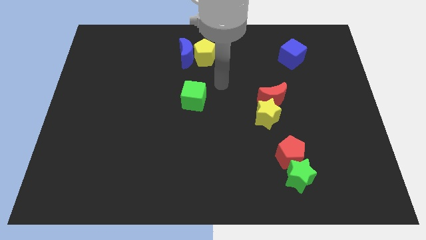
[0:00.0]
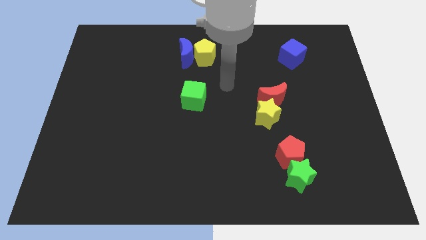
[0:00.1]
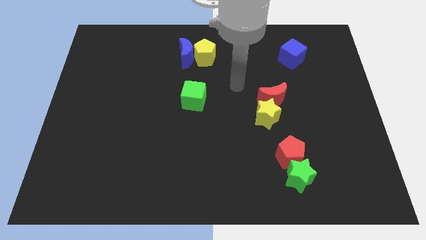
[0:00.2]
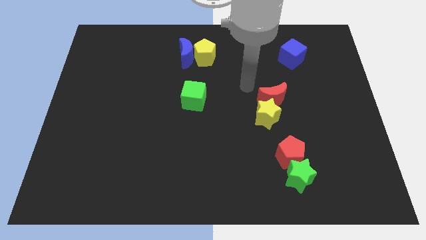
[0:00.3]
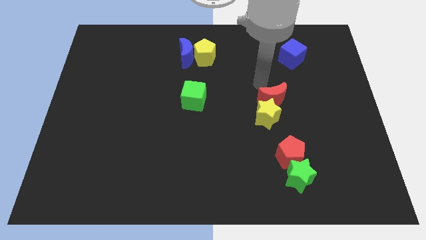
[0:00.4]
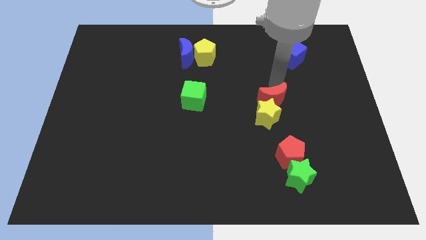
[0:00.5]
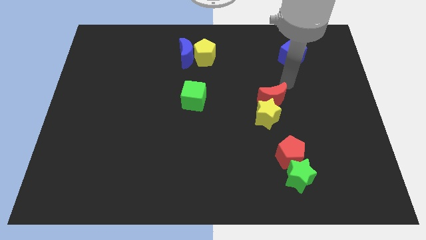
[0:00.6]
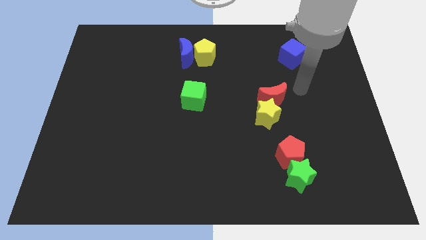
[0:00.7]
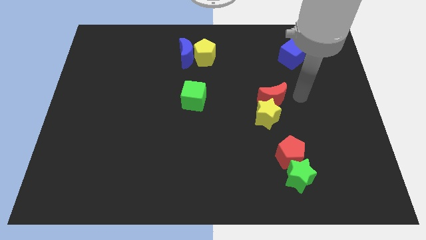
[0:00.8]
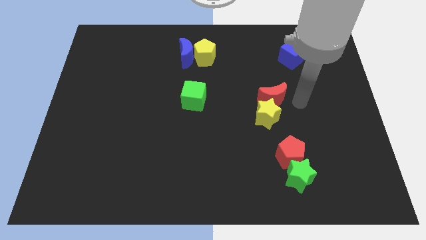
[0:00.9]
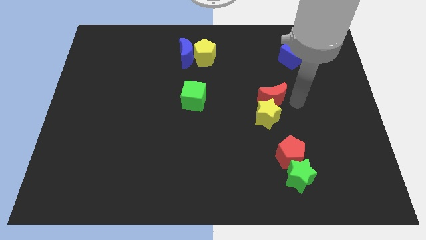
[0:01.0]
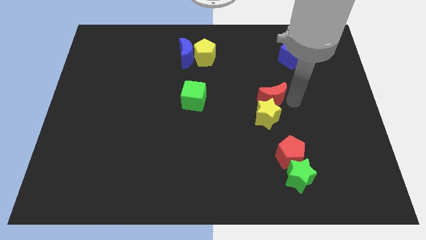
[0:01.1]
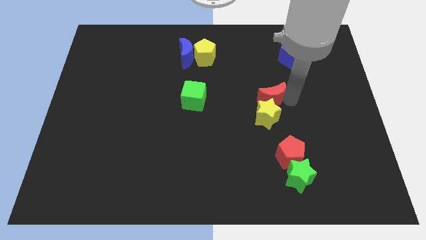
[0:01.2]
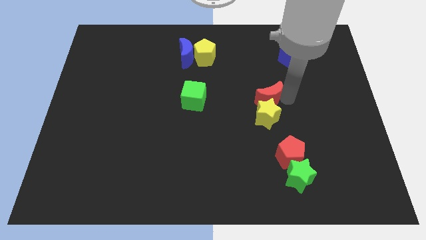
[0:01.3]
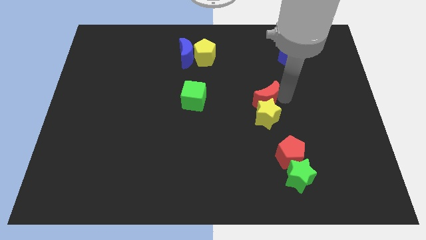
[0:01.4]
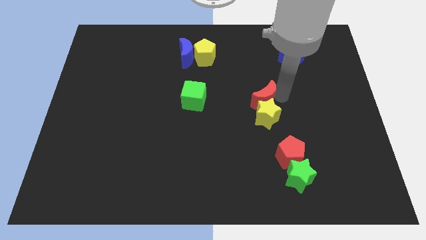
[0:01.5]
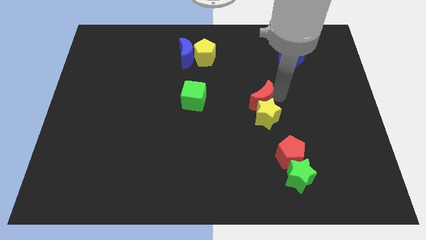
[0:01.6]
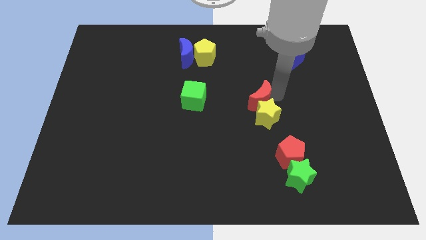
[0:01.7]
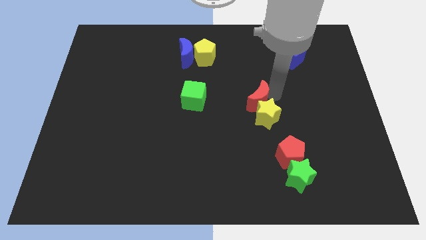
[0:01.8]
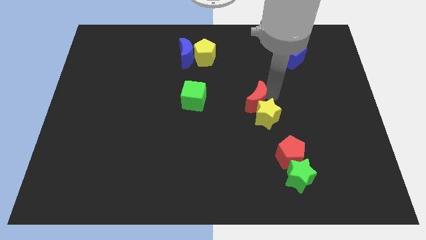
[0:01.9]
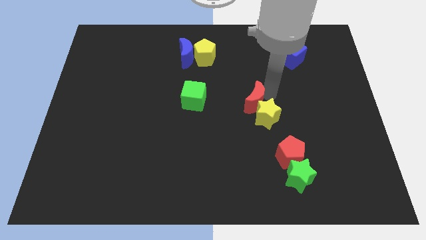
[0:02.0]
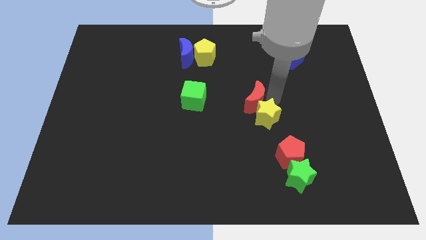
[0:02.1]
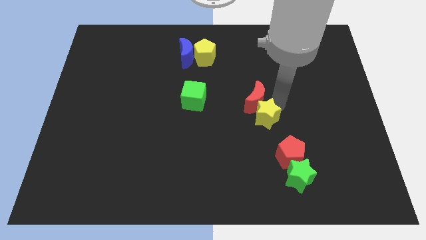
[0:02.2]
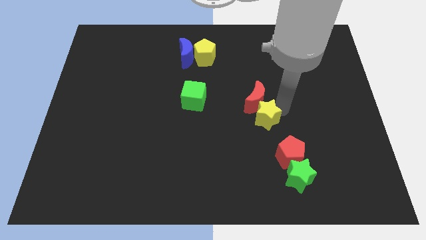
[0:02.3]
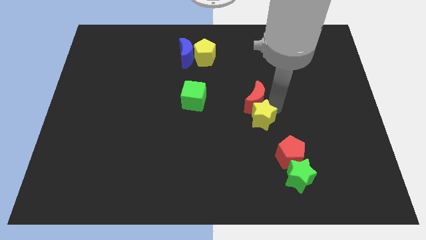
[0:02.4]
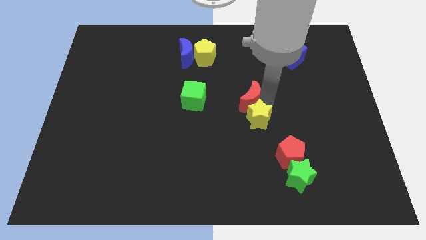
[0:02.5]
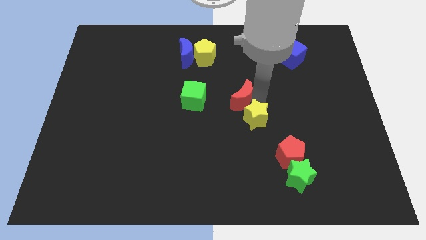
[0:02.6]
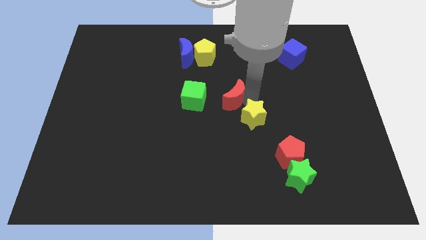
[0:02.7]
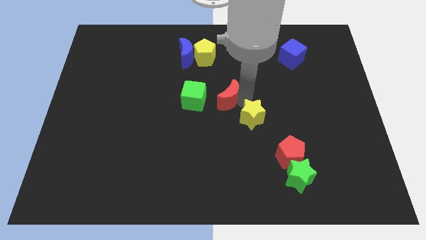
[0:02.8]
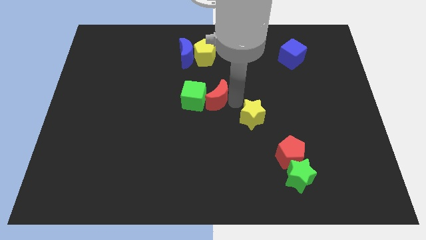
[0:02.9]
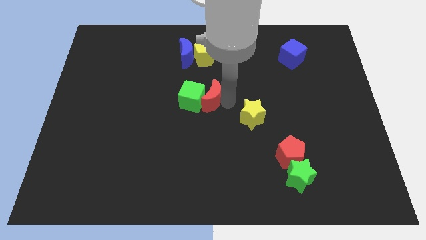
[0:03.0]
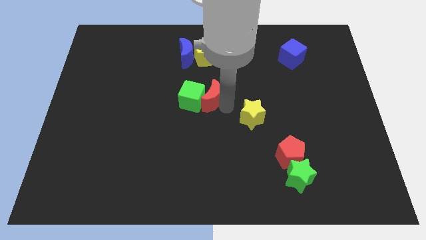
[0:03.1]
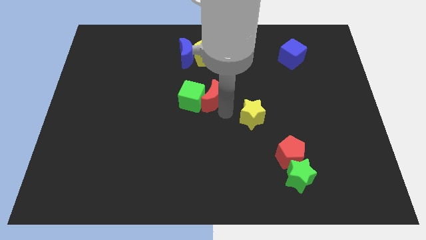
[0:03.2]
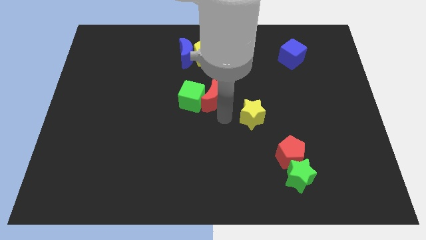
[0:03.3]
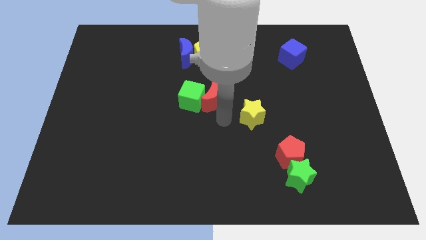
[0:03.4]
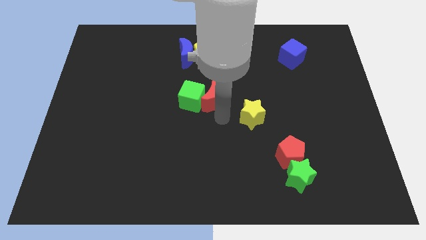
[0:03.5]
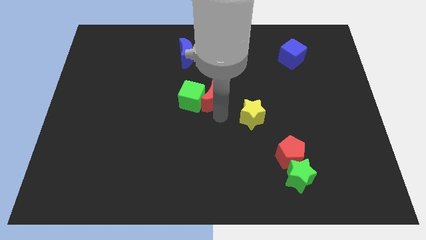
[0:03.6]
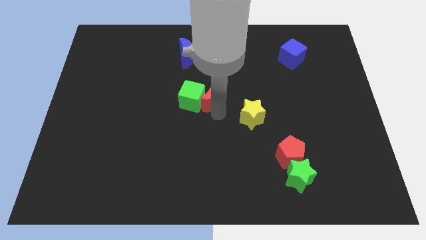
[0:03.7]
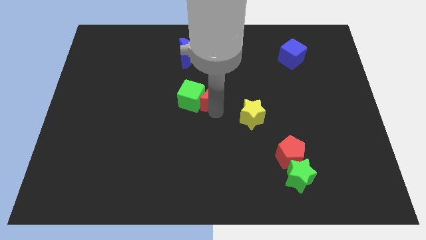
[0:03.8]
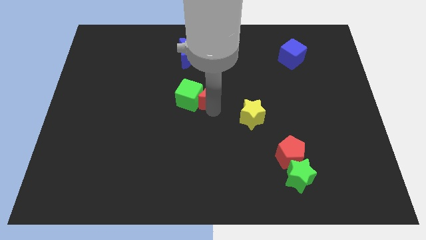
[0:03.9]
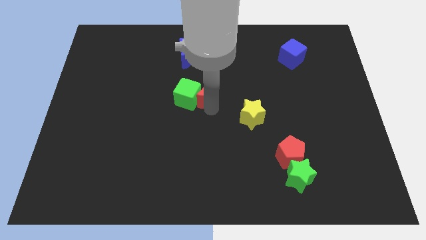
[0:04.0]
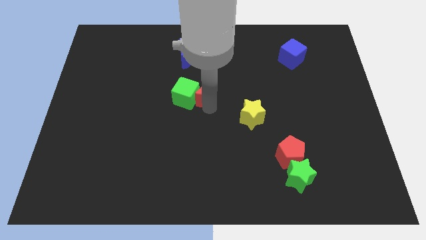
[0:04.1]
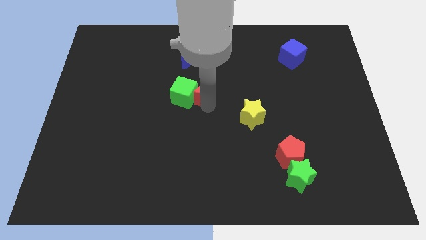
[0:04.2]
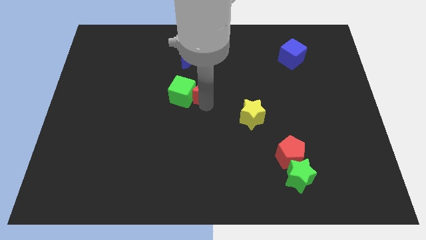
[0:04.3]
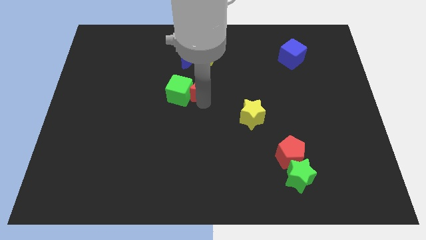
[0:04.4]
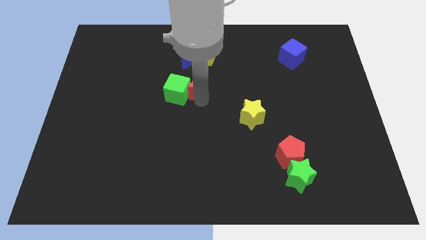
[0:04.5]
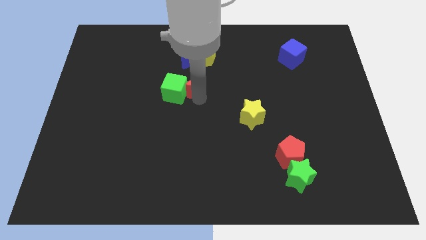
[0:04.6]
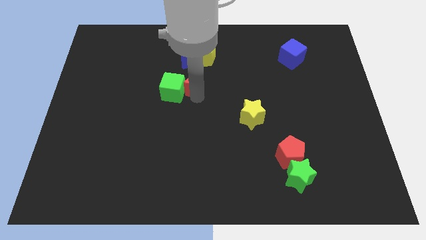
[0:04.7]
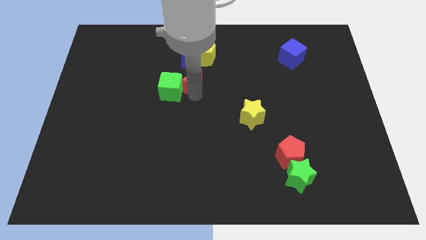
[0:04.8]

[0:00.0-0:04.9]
slide the red moon to the bottom left side of the yellow pentagon

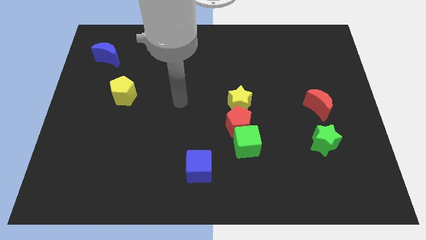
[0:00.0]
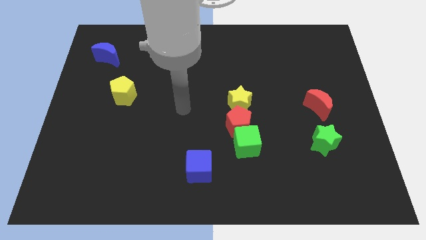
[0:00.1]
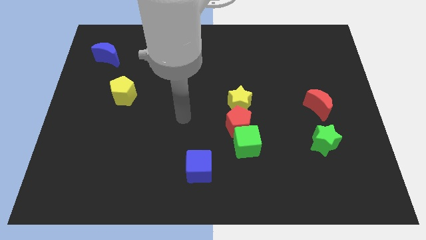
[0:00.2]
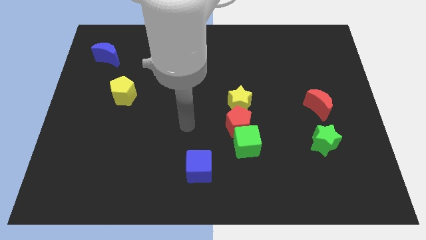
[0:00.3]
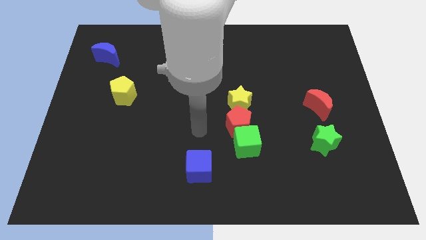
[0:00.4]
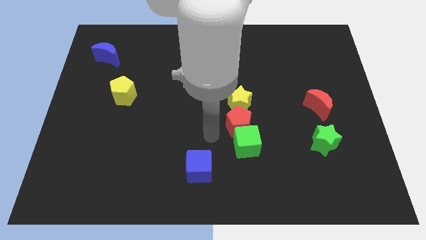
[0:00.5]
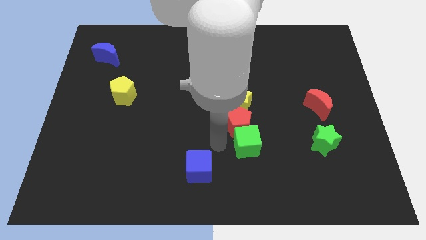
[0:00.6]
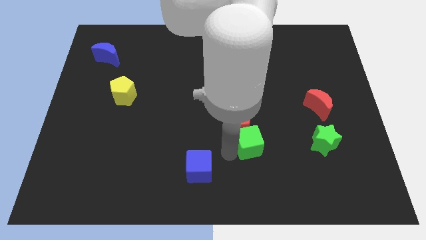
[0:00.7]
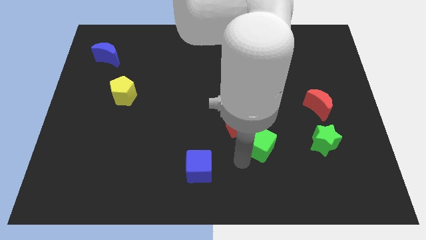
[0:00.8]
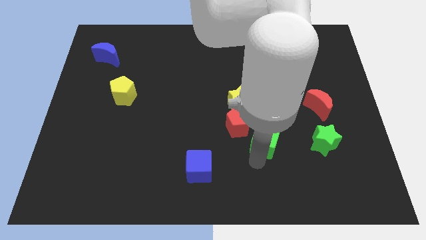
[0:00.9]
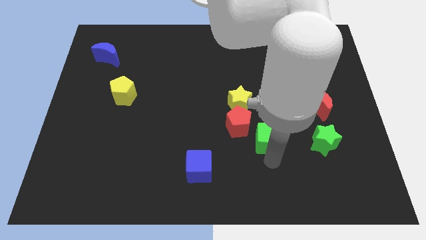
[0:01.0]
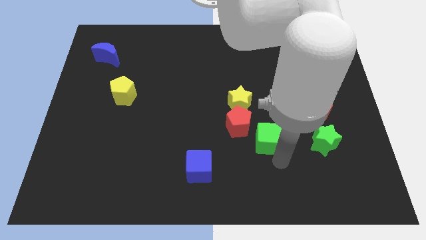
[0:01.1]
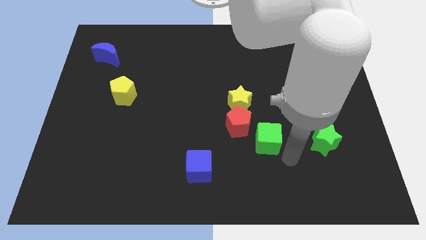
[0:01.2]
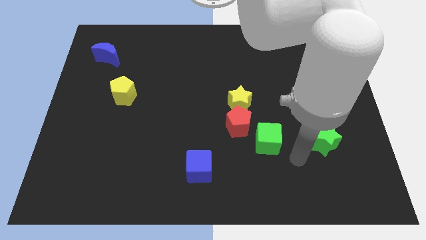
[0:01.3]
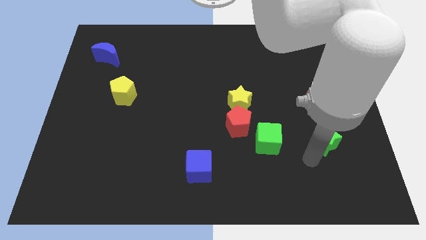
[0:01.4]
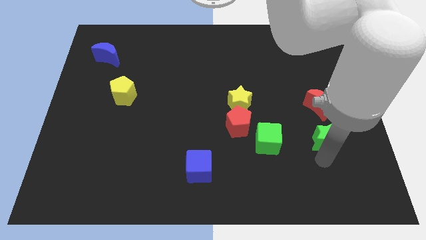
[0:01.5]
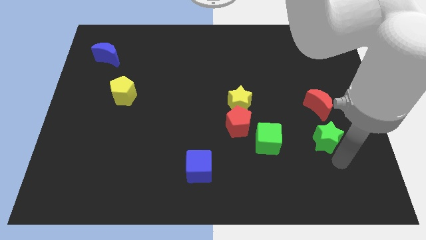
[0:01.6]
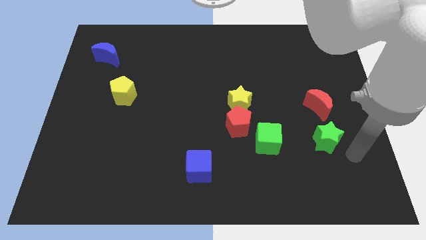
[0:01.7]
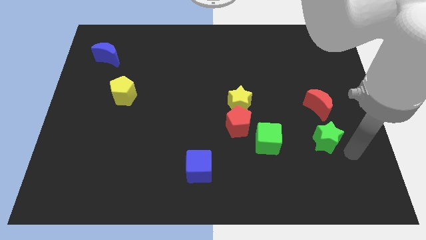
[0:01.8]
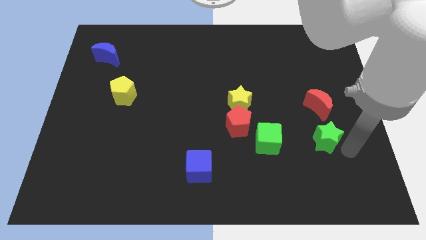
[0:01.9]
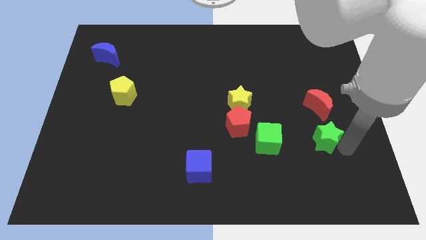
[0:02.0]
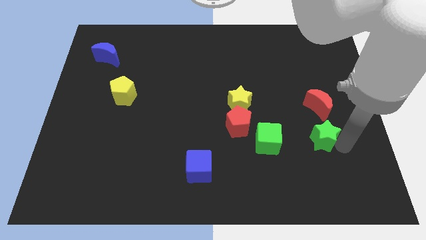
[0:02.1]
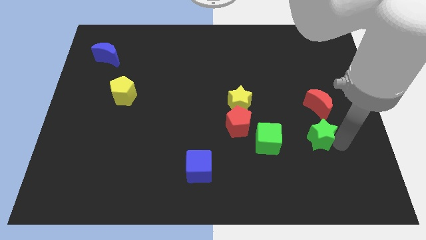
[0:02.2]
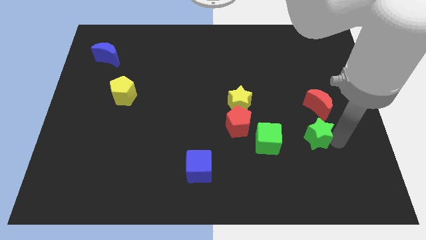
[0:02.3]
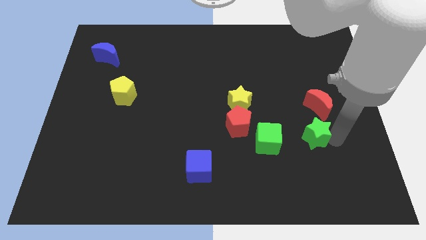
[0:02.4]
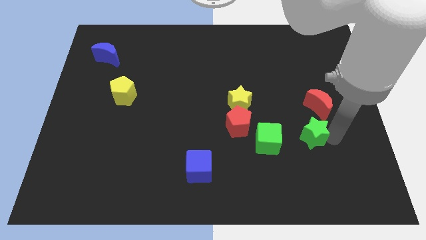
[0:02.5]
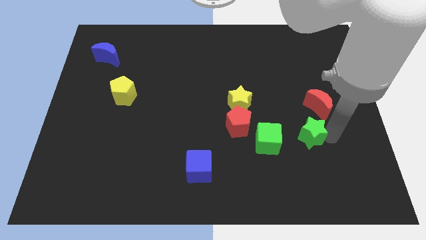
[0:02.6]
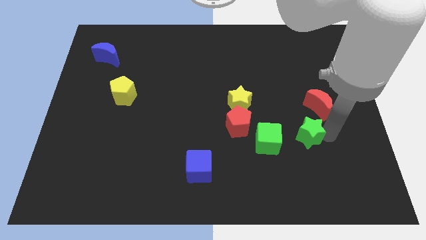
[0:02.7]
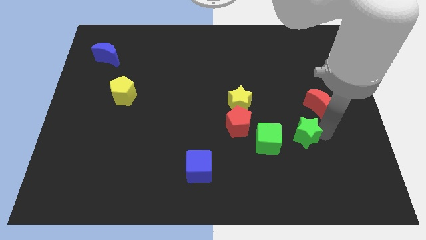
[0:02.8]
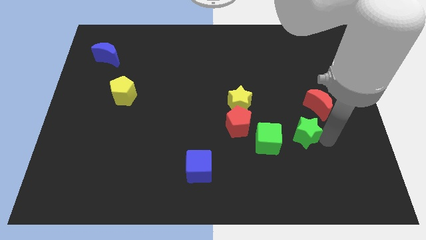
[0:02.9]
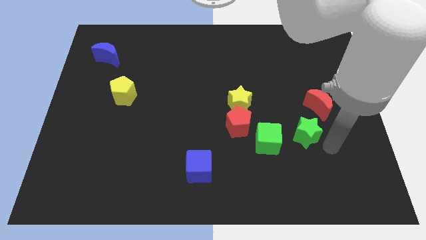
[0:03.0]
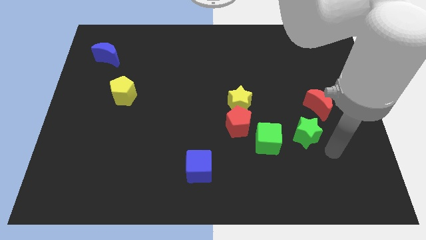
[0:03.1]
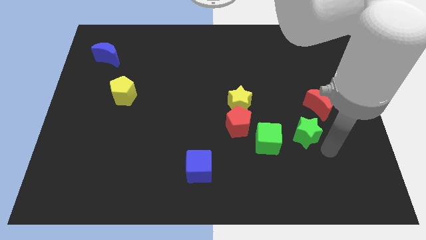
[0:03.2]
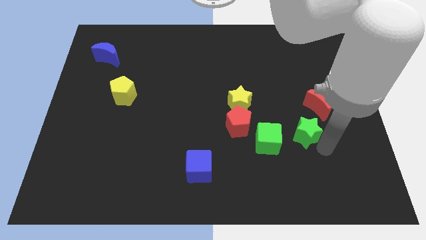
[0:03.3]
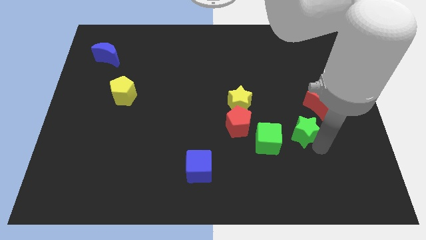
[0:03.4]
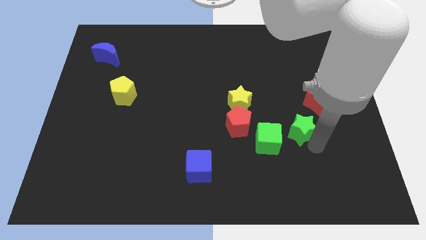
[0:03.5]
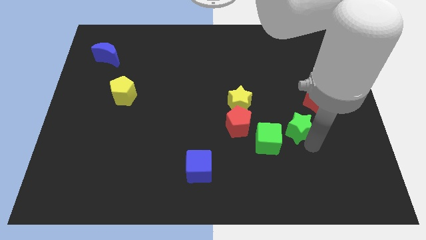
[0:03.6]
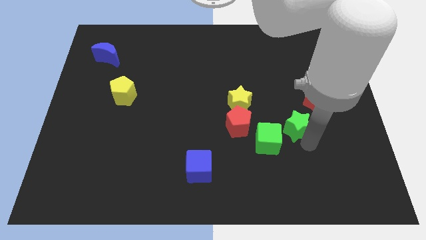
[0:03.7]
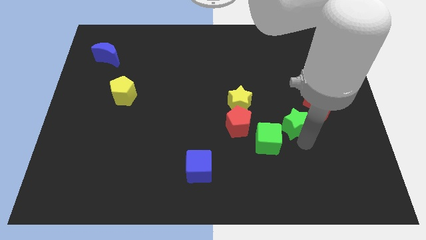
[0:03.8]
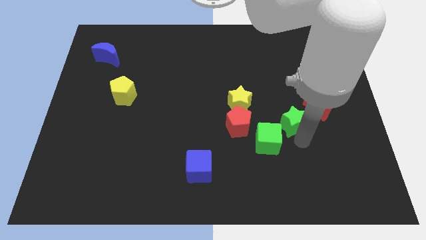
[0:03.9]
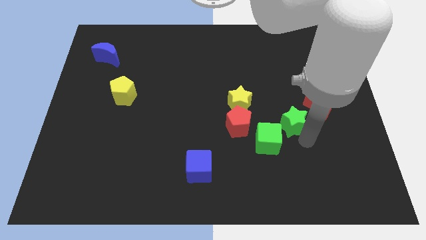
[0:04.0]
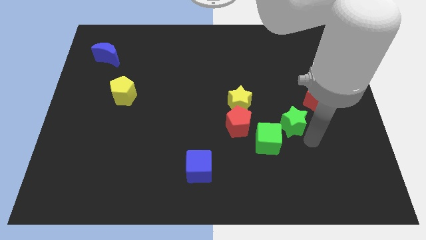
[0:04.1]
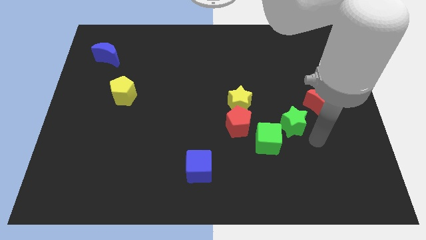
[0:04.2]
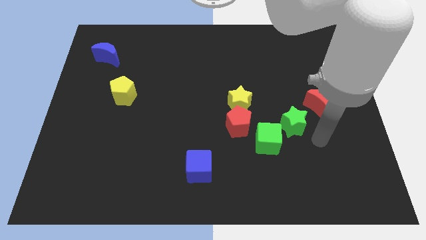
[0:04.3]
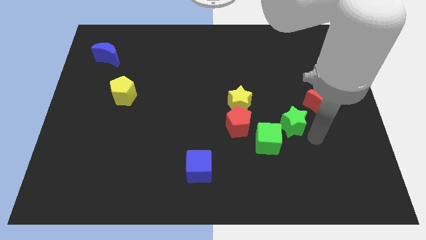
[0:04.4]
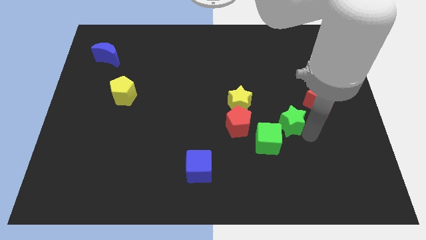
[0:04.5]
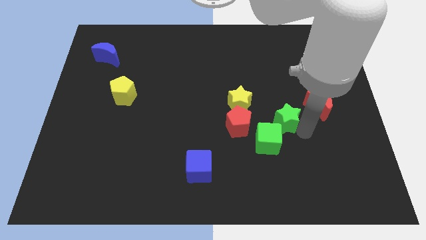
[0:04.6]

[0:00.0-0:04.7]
push the green star above the green cube
